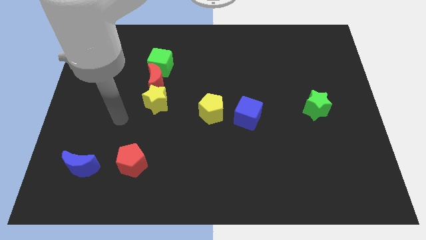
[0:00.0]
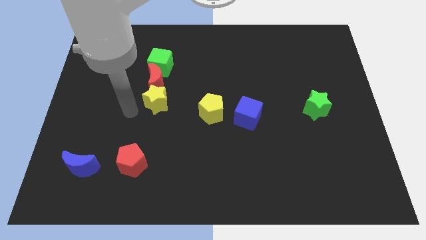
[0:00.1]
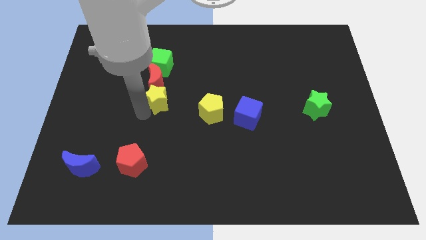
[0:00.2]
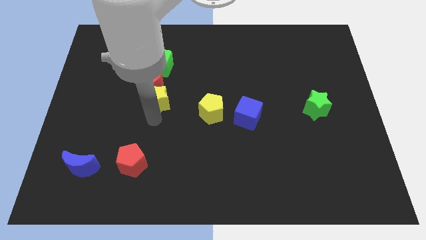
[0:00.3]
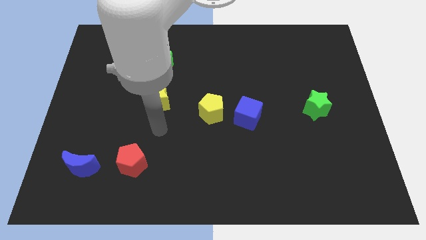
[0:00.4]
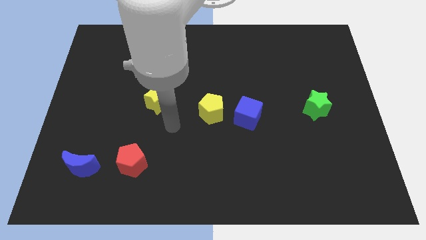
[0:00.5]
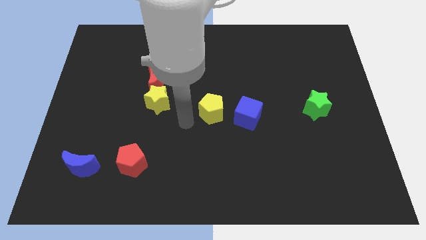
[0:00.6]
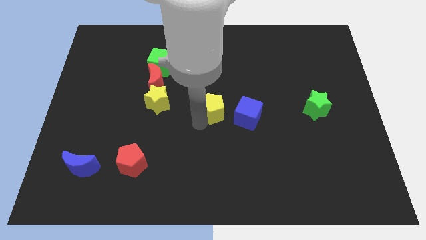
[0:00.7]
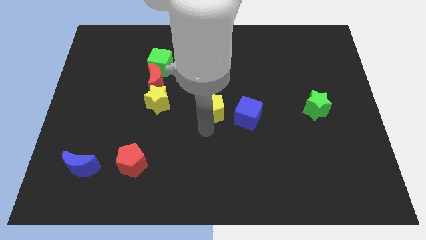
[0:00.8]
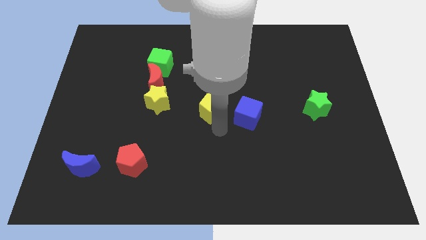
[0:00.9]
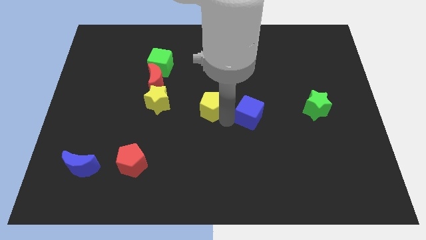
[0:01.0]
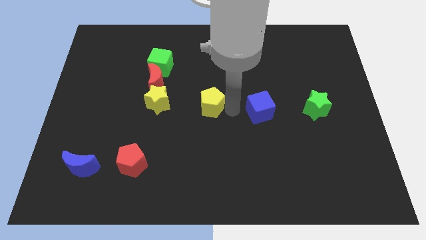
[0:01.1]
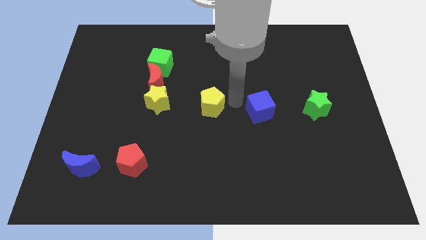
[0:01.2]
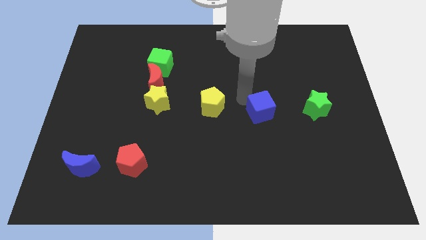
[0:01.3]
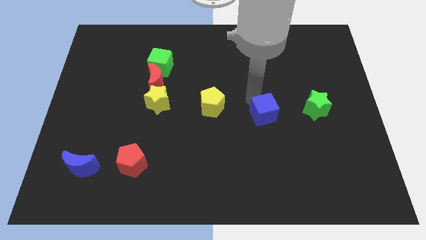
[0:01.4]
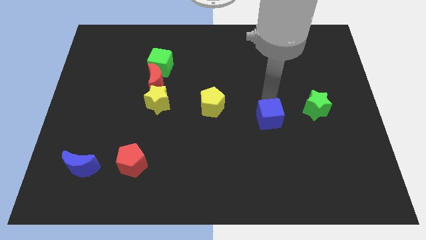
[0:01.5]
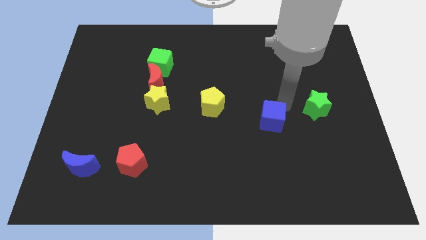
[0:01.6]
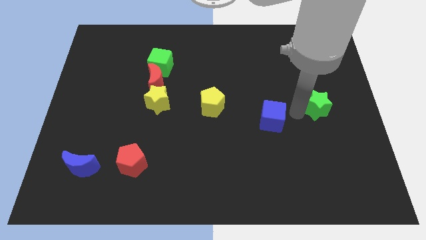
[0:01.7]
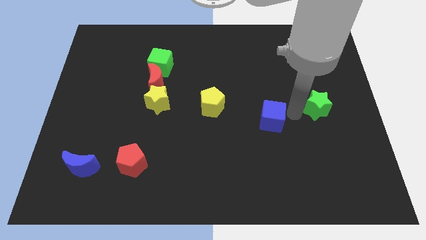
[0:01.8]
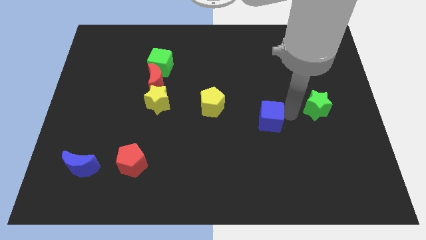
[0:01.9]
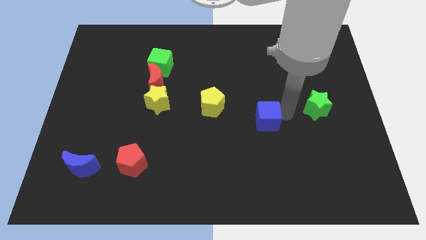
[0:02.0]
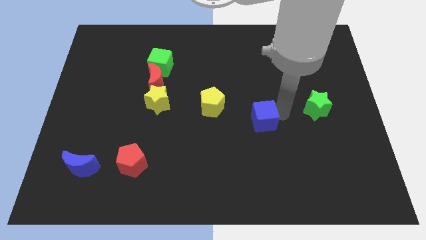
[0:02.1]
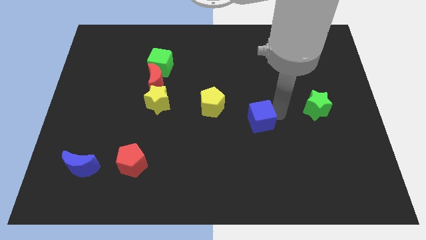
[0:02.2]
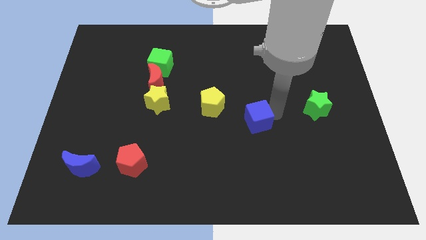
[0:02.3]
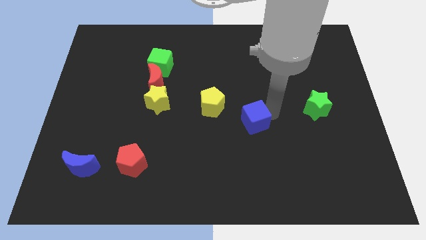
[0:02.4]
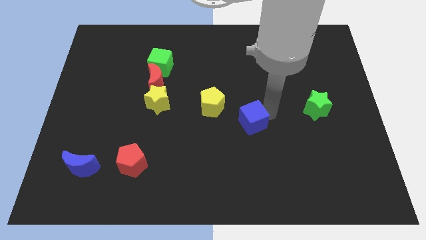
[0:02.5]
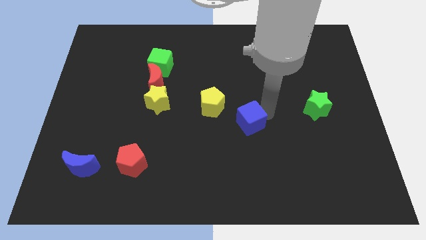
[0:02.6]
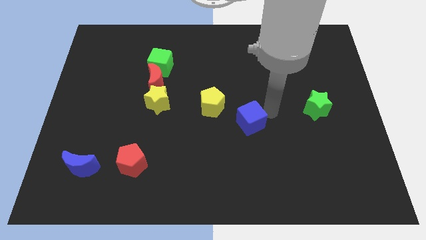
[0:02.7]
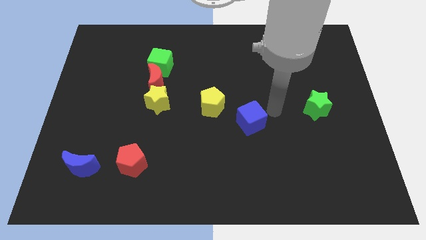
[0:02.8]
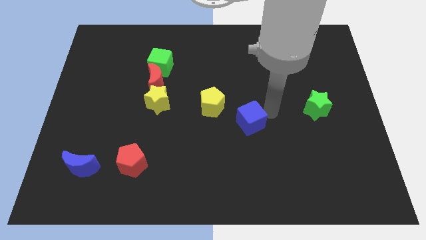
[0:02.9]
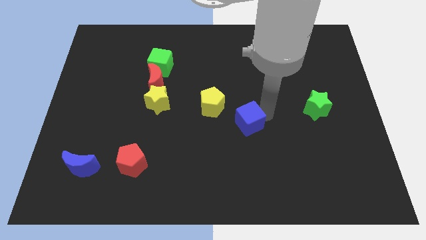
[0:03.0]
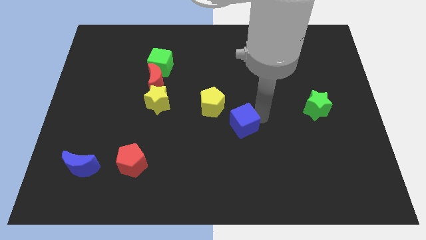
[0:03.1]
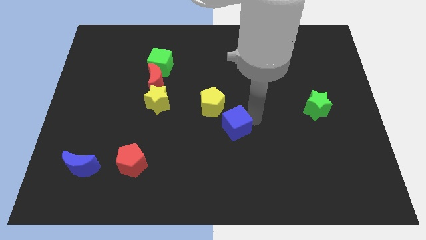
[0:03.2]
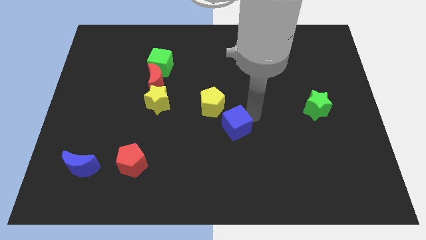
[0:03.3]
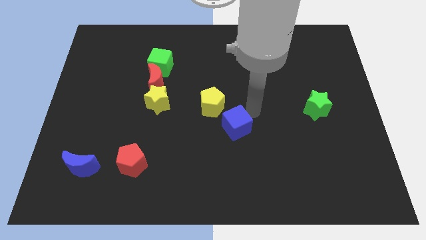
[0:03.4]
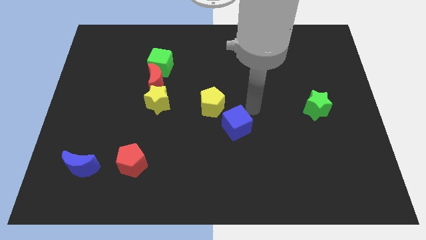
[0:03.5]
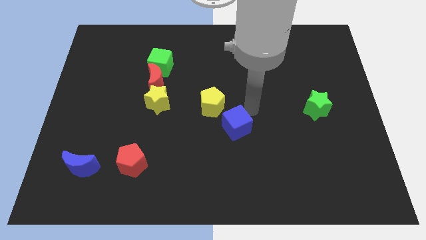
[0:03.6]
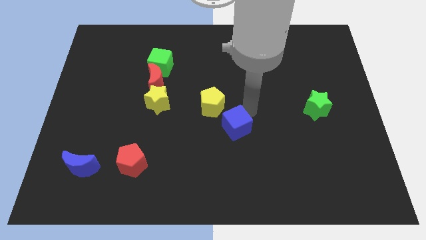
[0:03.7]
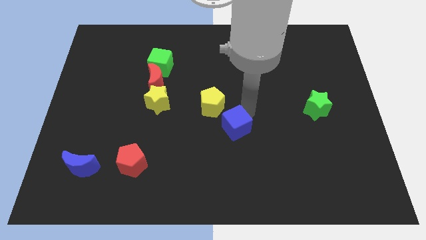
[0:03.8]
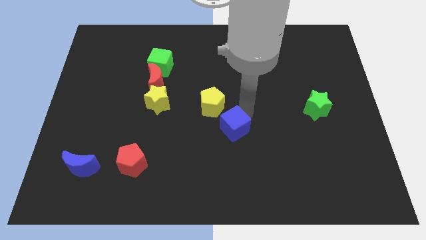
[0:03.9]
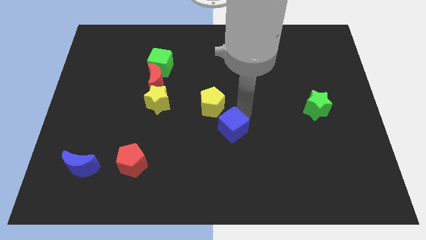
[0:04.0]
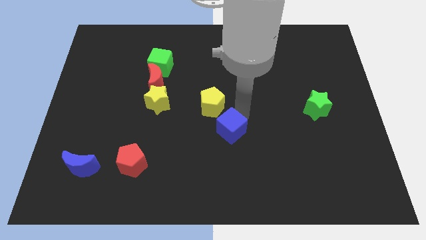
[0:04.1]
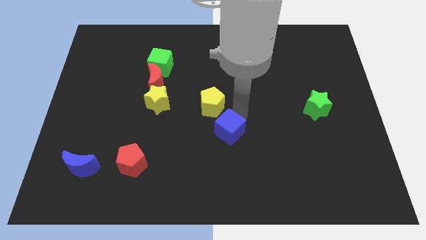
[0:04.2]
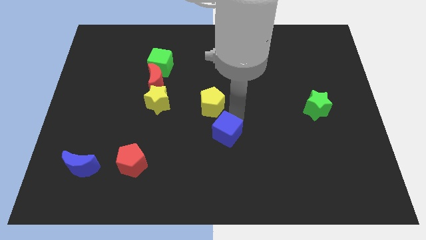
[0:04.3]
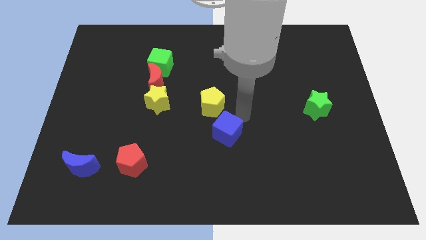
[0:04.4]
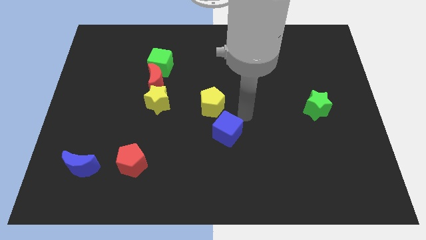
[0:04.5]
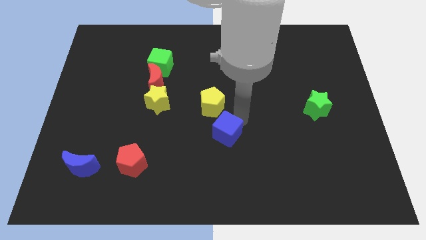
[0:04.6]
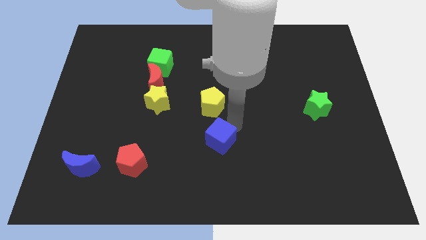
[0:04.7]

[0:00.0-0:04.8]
push the blue cube diagonally downwards and to the left slightly

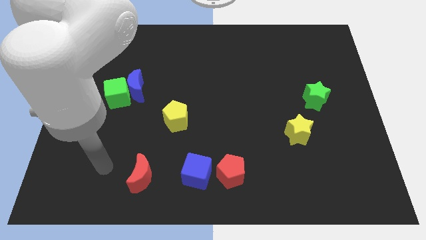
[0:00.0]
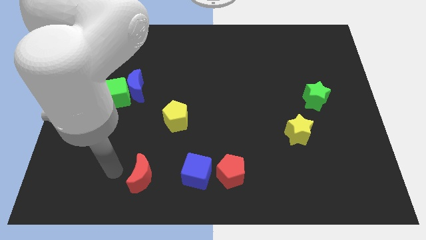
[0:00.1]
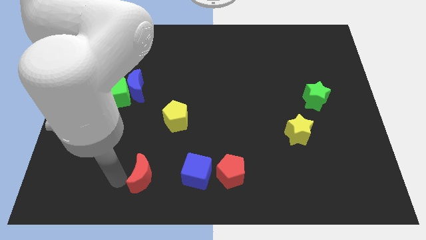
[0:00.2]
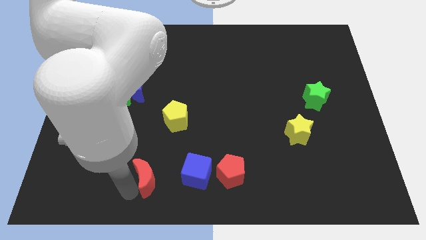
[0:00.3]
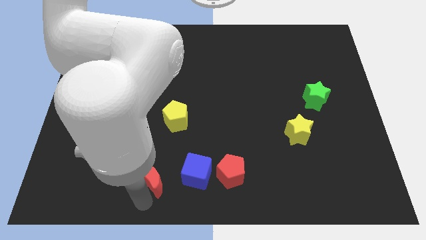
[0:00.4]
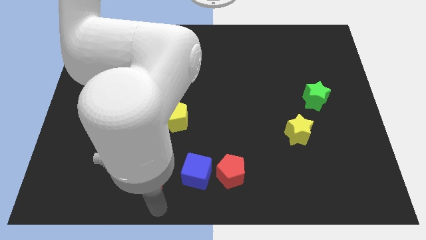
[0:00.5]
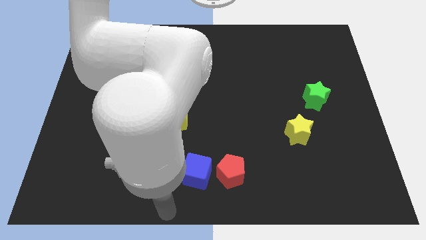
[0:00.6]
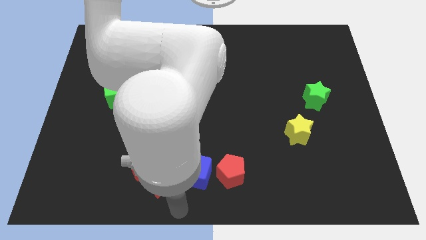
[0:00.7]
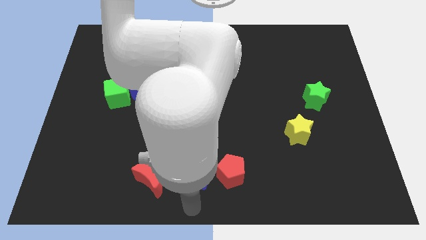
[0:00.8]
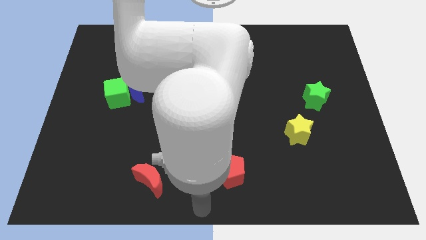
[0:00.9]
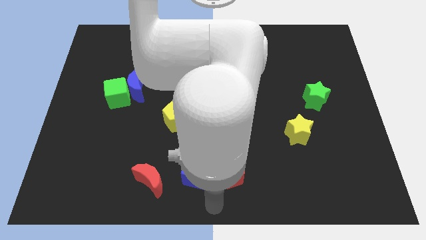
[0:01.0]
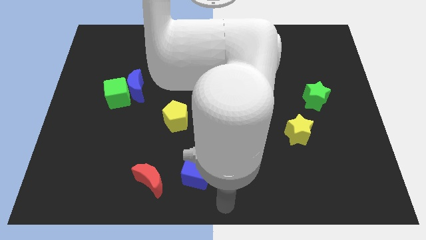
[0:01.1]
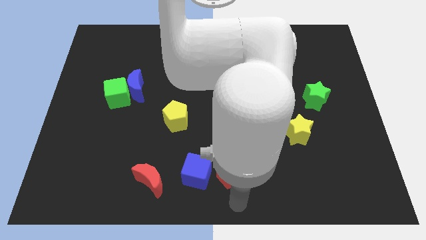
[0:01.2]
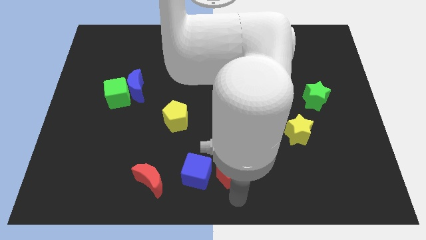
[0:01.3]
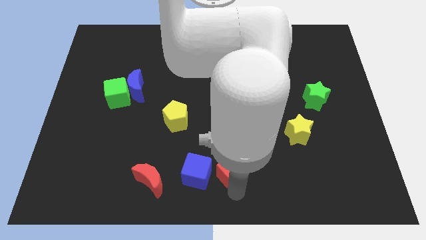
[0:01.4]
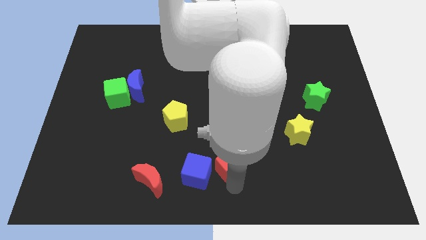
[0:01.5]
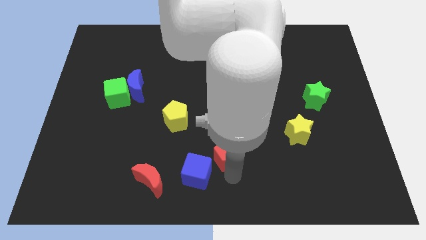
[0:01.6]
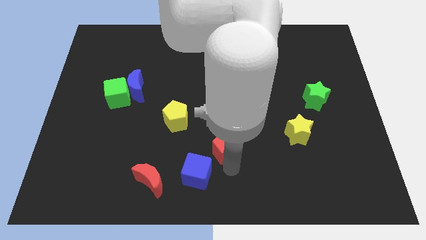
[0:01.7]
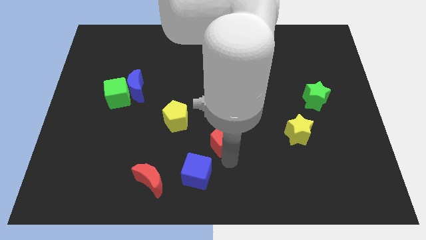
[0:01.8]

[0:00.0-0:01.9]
push the red pentagon up somewhat

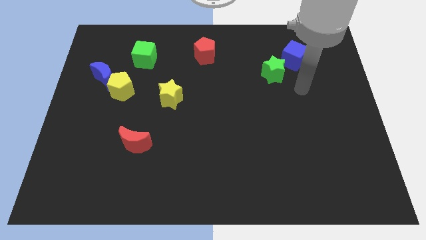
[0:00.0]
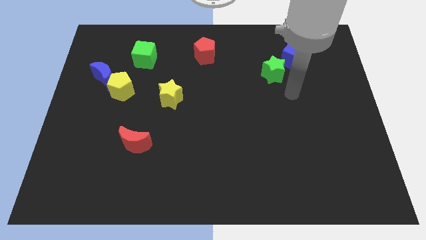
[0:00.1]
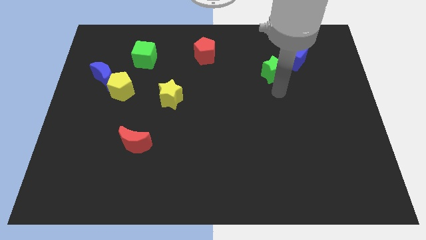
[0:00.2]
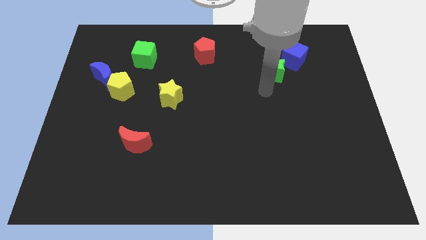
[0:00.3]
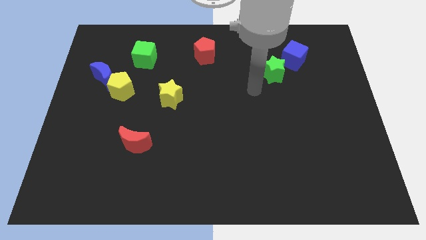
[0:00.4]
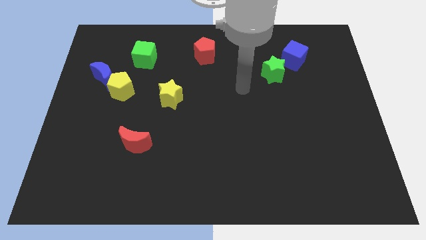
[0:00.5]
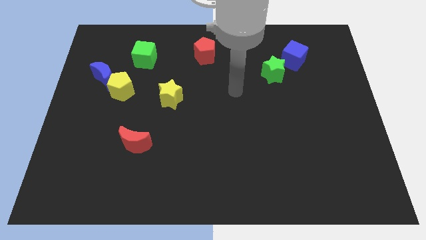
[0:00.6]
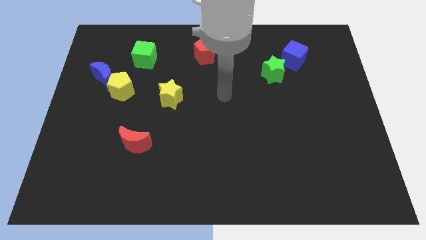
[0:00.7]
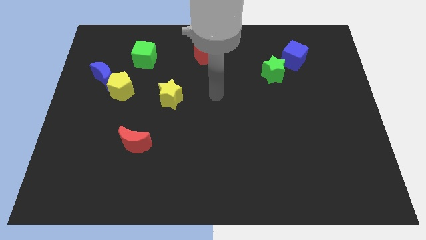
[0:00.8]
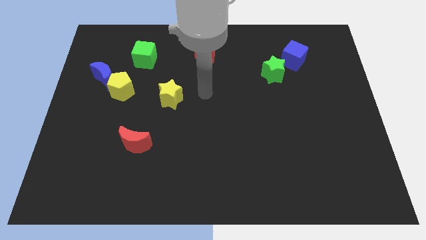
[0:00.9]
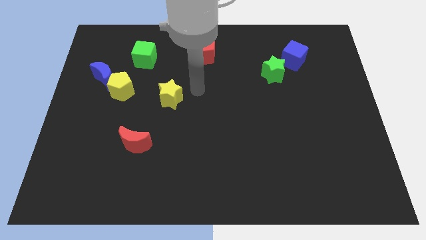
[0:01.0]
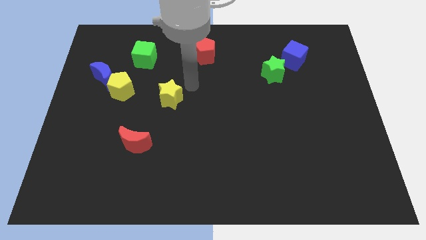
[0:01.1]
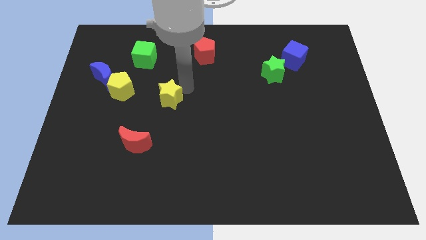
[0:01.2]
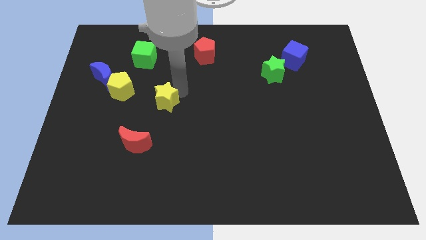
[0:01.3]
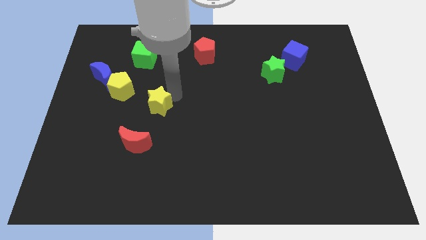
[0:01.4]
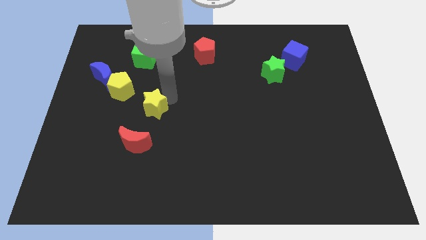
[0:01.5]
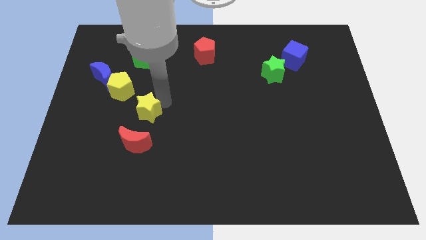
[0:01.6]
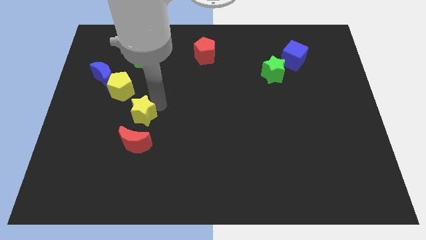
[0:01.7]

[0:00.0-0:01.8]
move the yellow star down and then to the left somewhat
